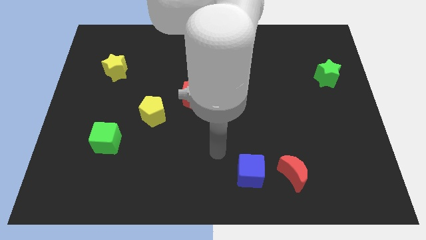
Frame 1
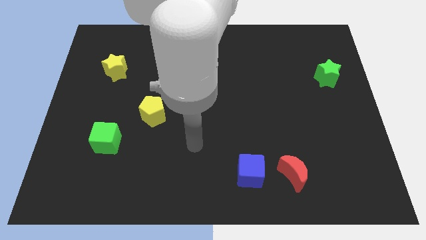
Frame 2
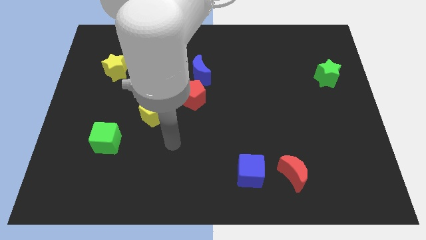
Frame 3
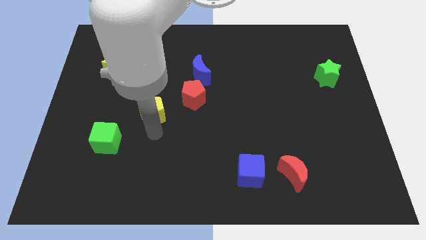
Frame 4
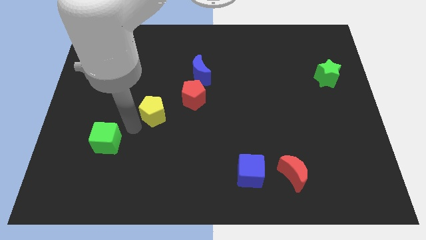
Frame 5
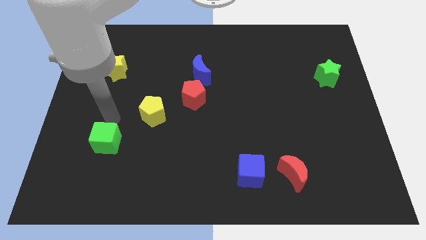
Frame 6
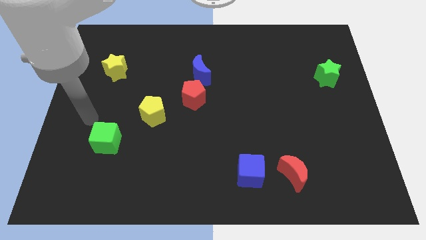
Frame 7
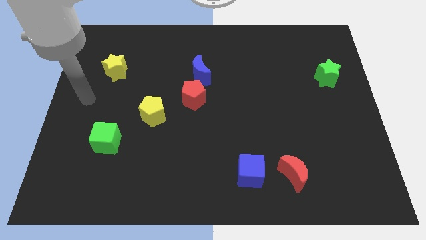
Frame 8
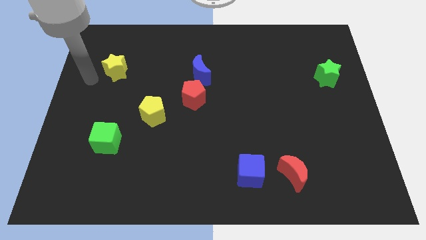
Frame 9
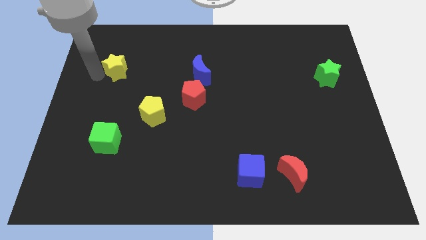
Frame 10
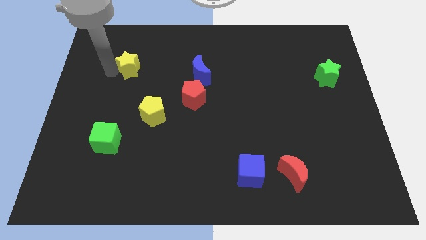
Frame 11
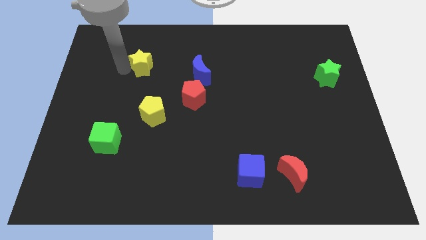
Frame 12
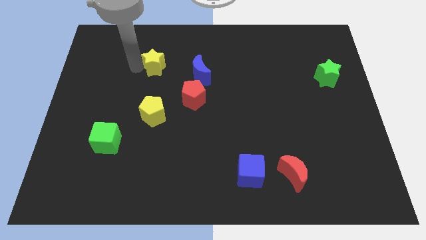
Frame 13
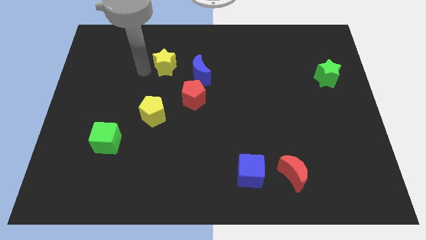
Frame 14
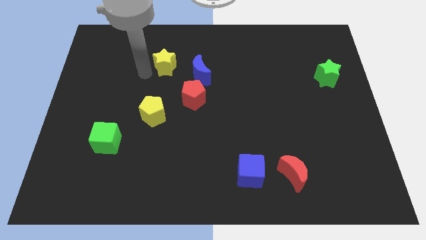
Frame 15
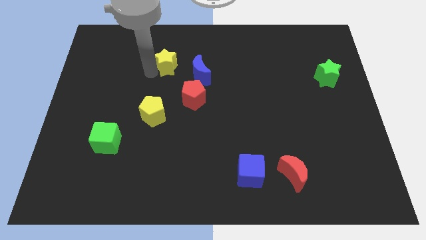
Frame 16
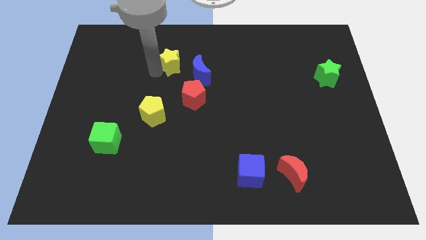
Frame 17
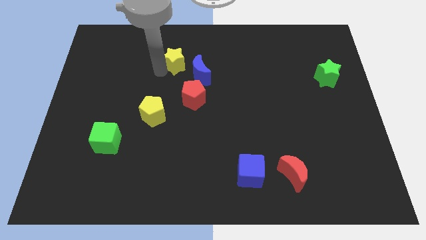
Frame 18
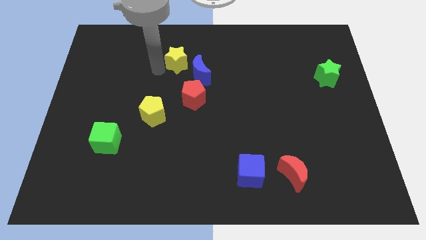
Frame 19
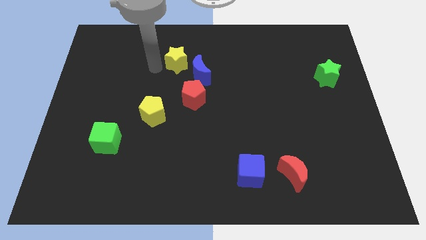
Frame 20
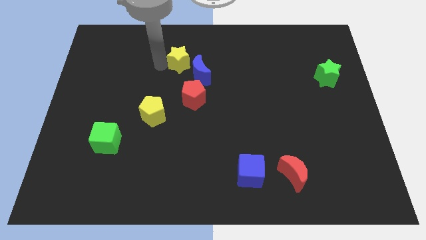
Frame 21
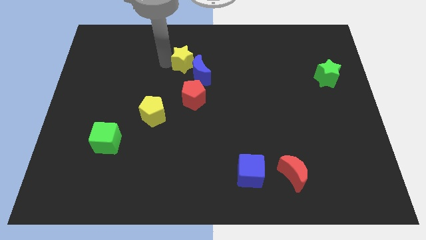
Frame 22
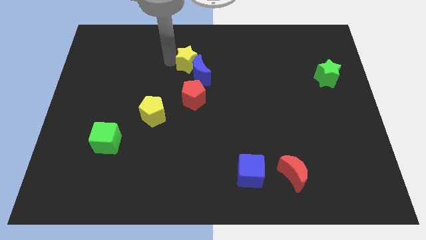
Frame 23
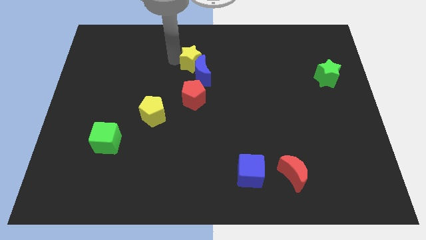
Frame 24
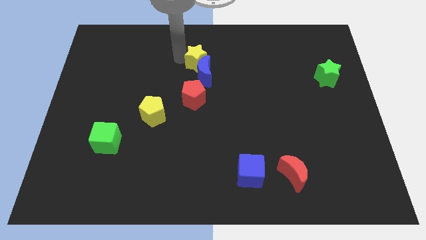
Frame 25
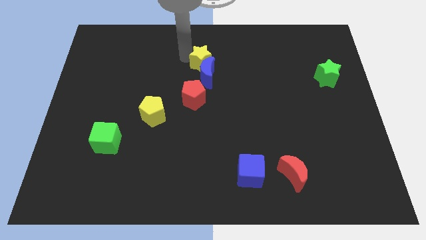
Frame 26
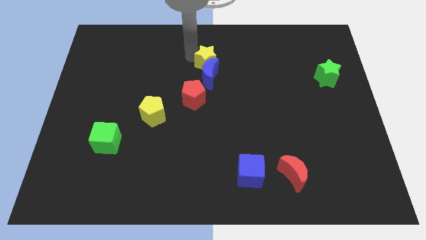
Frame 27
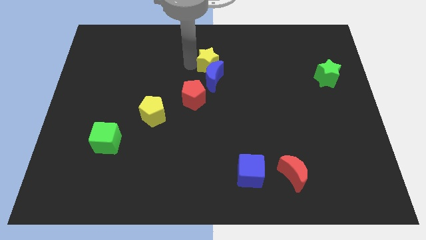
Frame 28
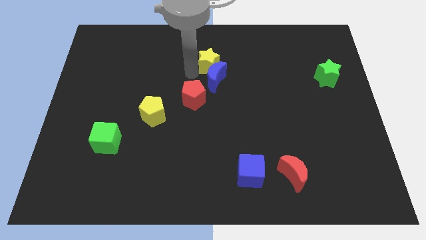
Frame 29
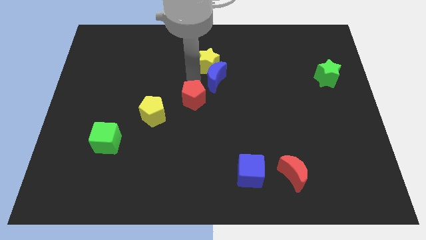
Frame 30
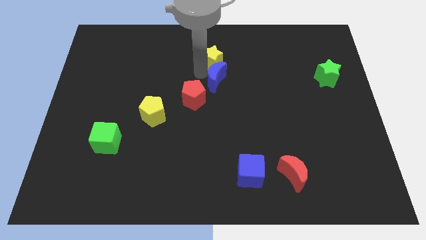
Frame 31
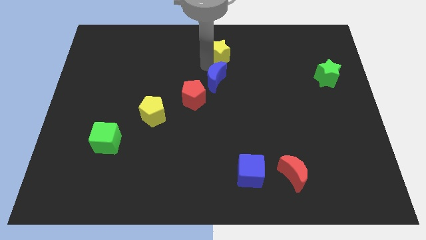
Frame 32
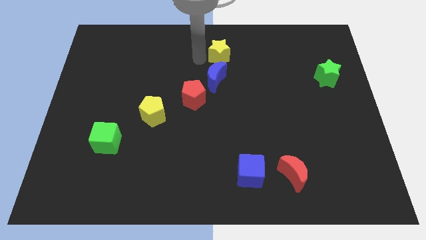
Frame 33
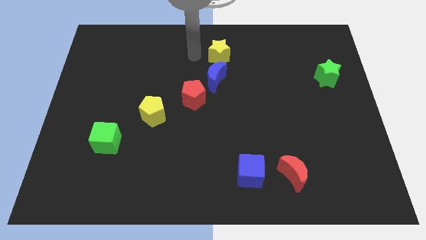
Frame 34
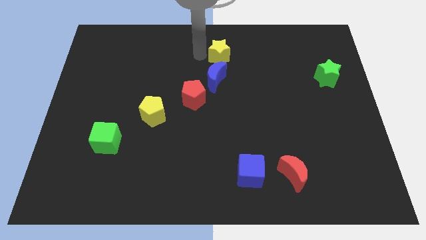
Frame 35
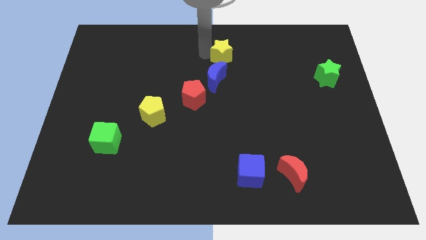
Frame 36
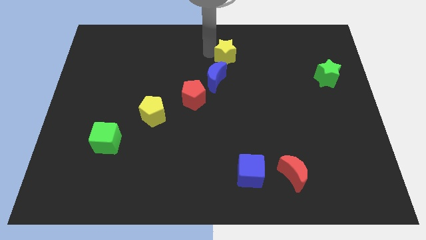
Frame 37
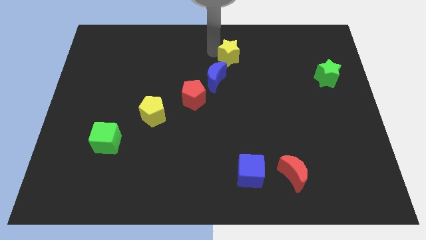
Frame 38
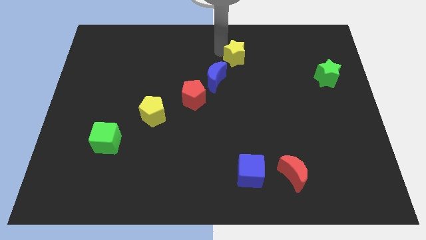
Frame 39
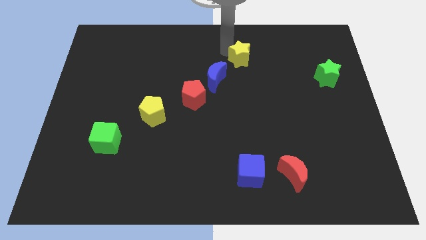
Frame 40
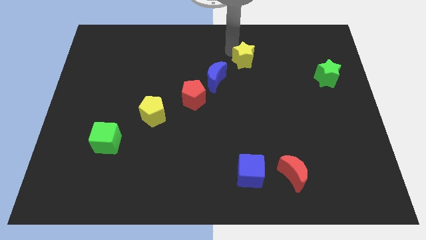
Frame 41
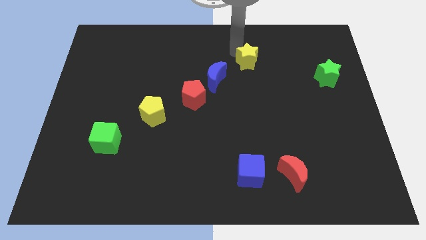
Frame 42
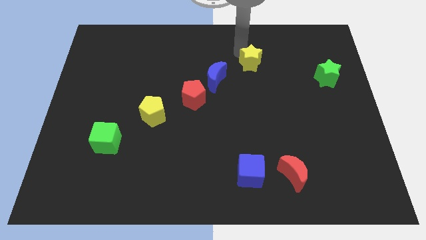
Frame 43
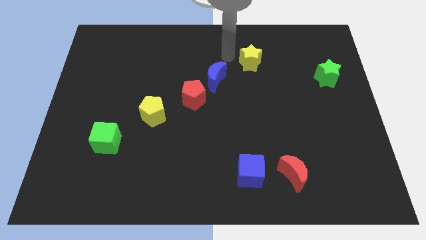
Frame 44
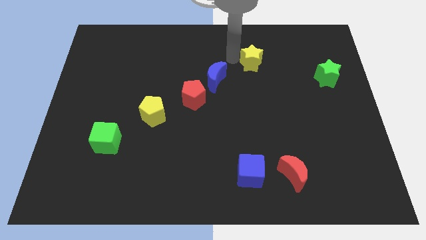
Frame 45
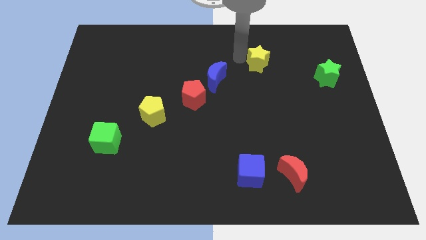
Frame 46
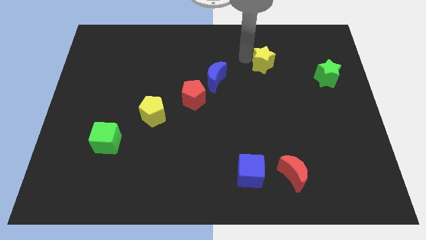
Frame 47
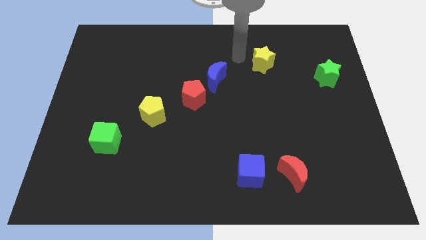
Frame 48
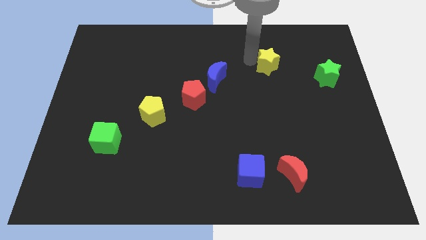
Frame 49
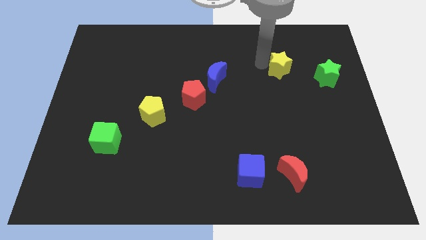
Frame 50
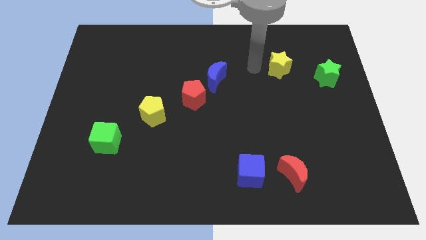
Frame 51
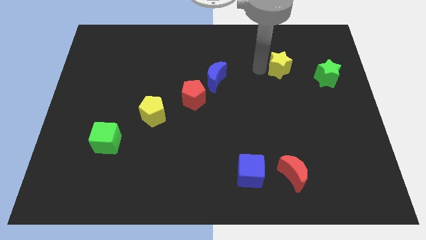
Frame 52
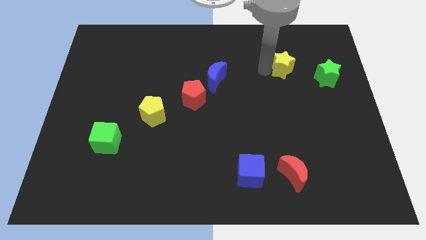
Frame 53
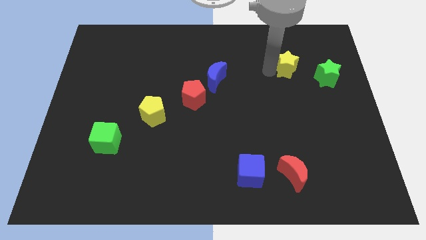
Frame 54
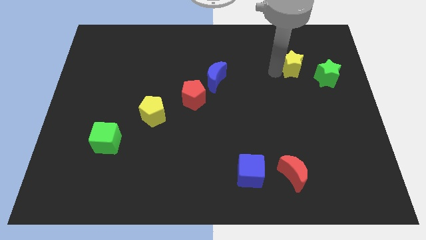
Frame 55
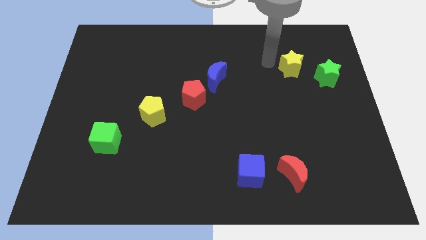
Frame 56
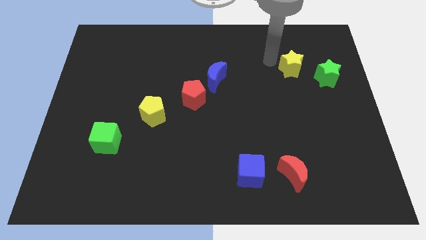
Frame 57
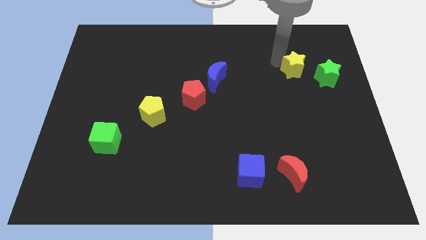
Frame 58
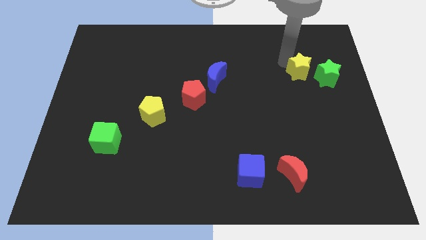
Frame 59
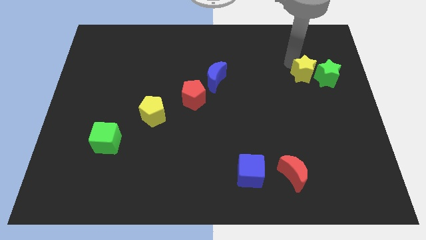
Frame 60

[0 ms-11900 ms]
slide the yellow star towards the green star

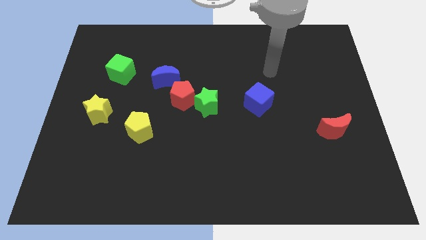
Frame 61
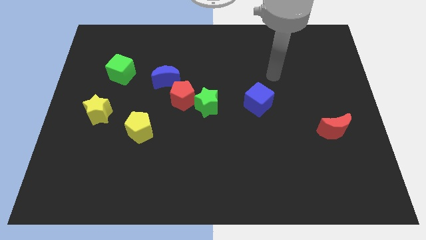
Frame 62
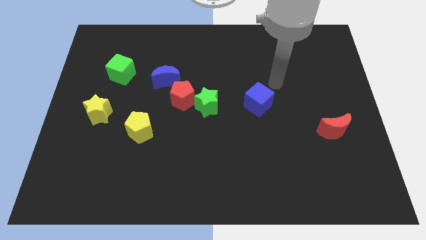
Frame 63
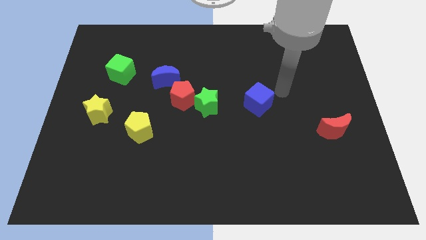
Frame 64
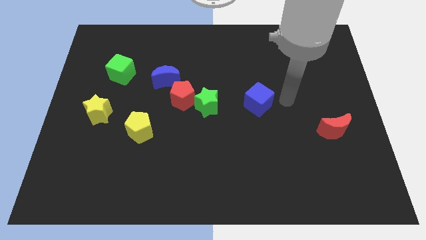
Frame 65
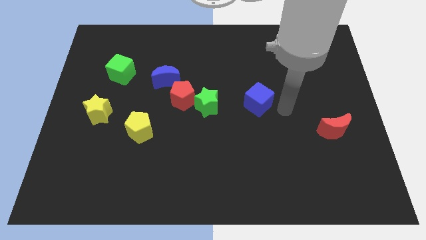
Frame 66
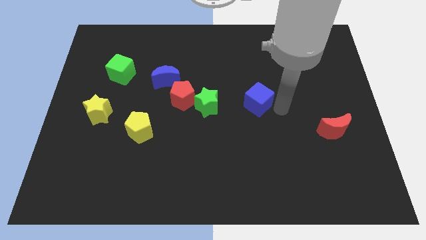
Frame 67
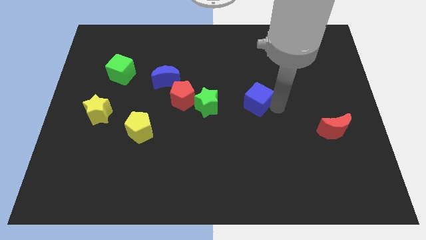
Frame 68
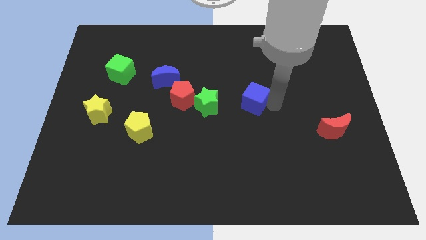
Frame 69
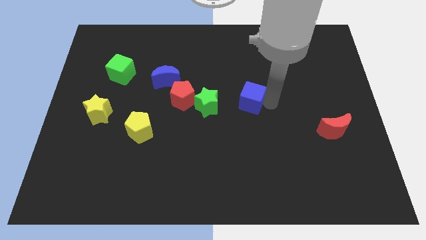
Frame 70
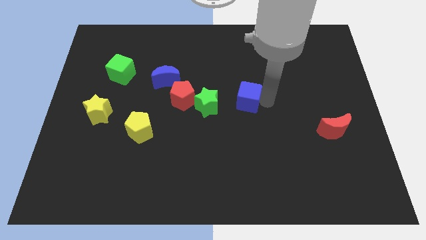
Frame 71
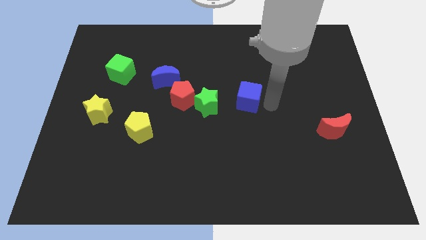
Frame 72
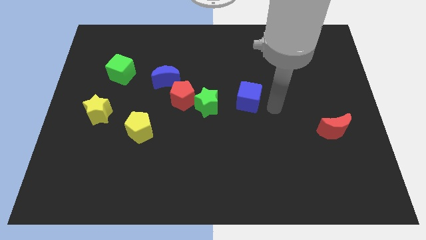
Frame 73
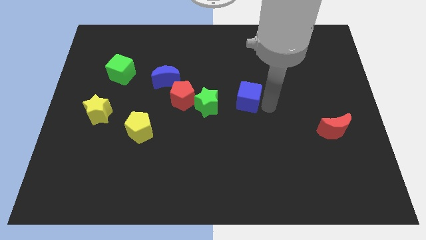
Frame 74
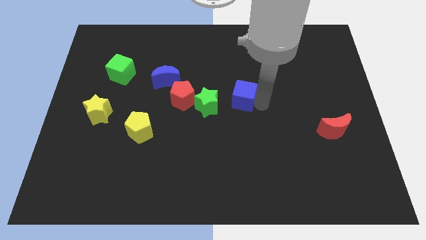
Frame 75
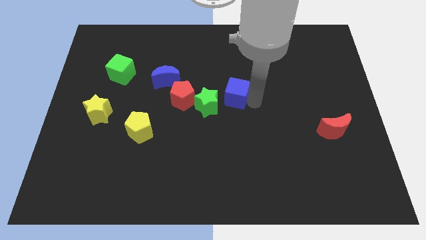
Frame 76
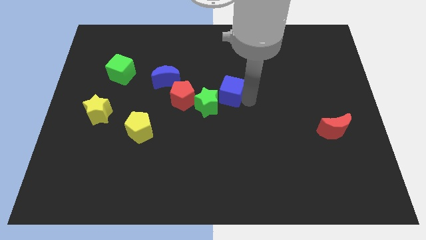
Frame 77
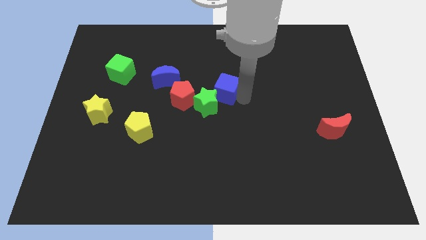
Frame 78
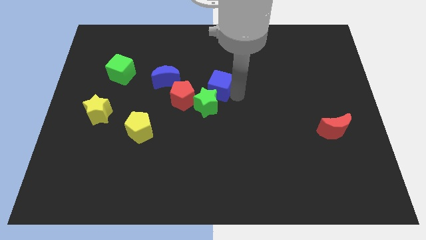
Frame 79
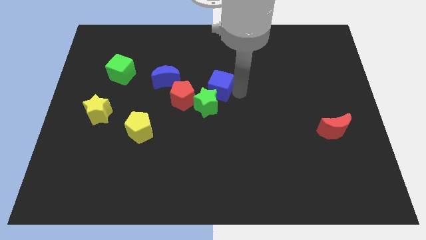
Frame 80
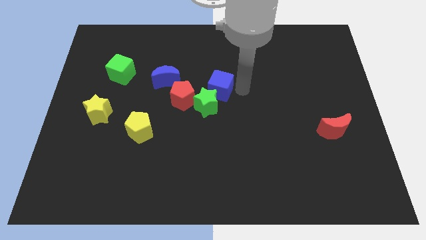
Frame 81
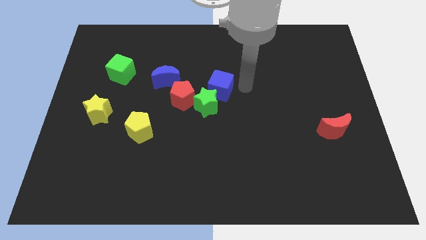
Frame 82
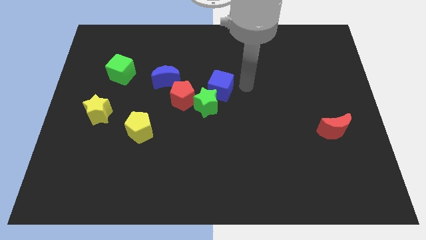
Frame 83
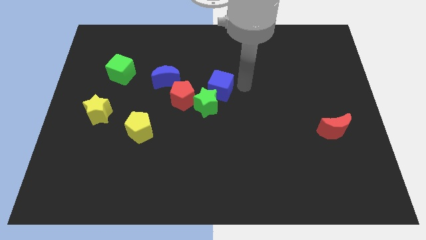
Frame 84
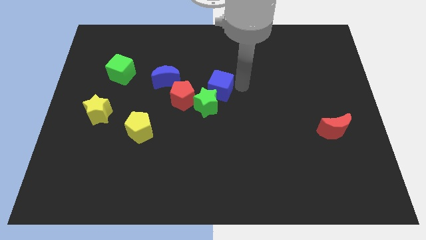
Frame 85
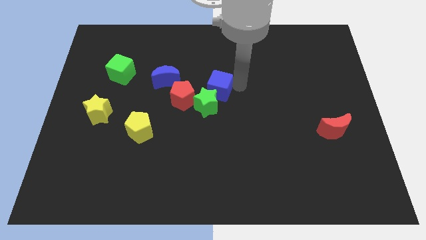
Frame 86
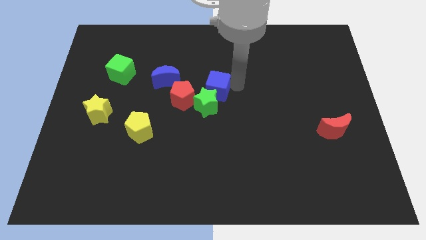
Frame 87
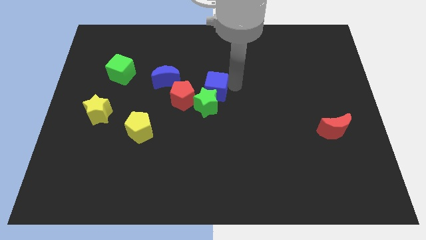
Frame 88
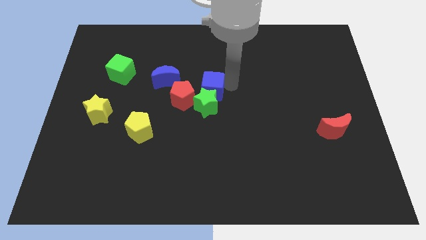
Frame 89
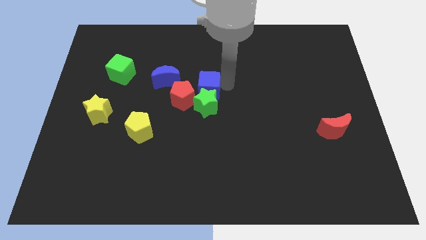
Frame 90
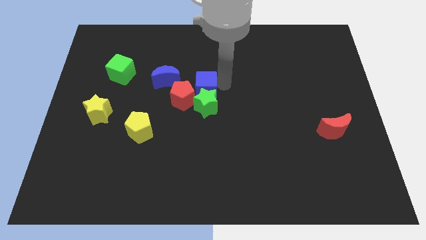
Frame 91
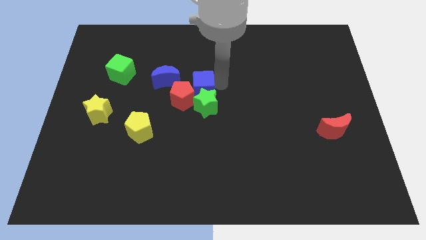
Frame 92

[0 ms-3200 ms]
slide the blue cube close to the red pentagon
